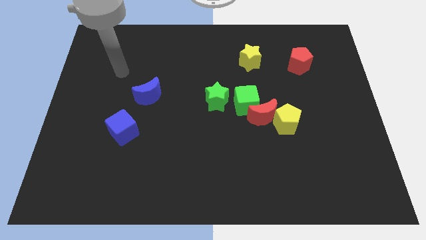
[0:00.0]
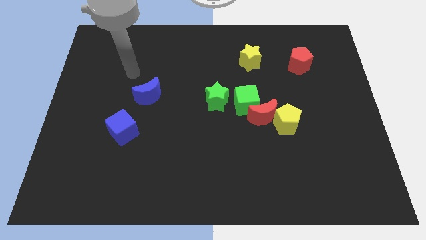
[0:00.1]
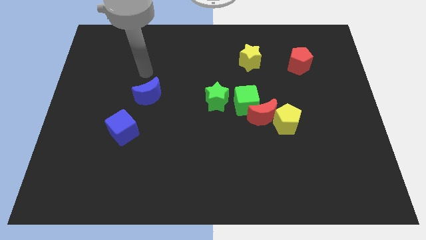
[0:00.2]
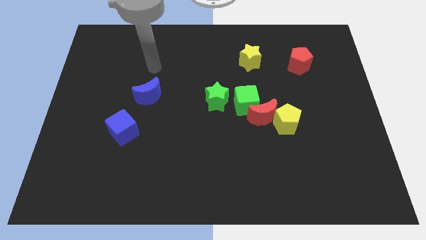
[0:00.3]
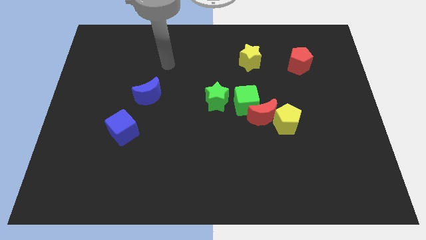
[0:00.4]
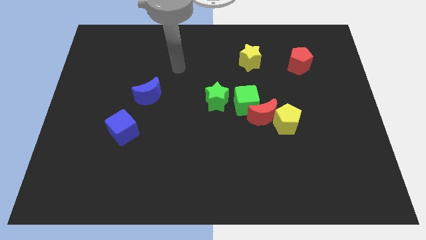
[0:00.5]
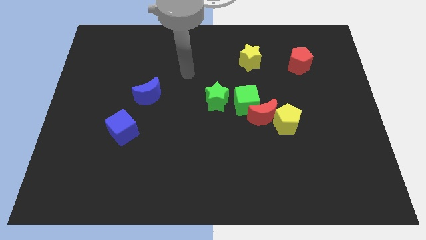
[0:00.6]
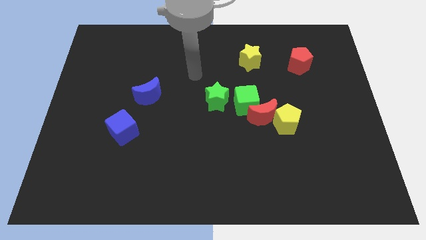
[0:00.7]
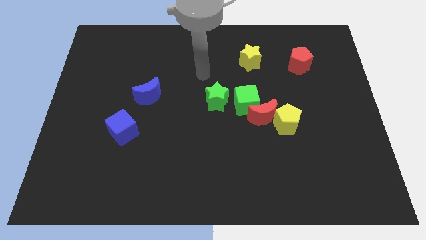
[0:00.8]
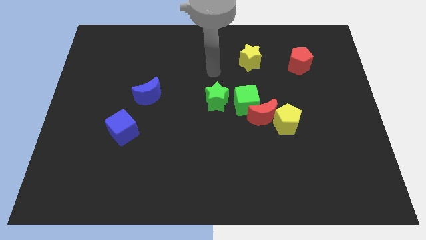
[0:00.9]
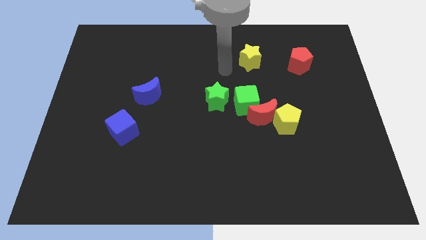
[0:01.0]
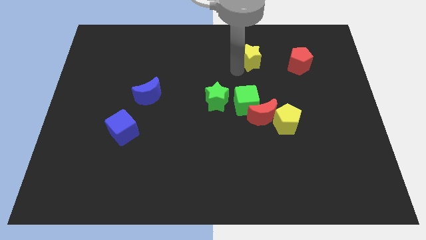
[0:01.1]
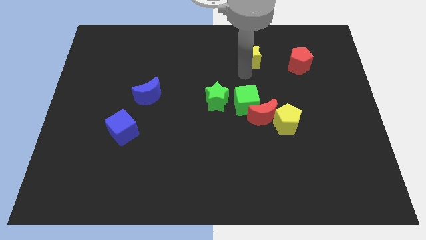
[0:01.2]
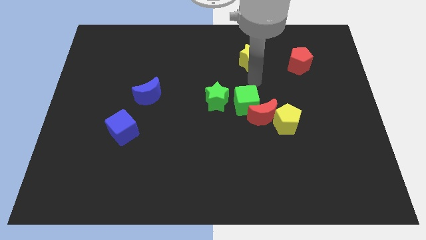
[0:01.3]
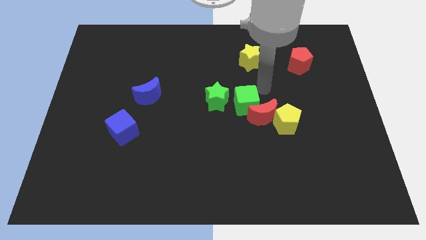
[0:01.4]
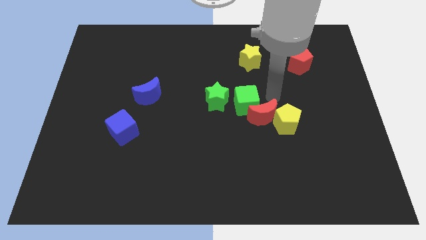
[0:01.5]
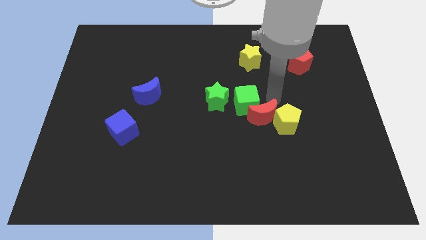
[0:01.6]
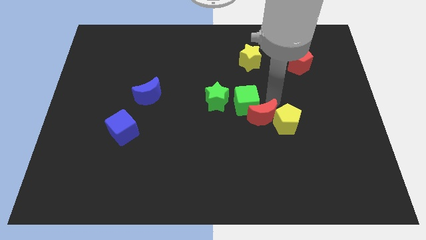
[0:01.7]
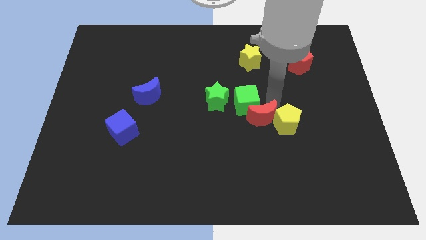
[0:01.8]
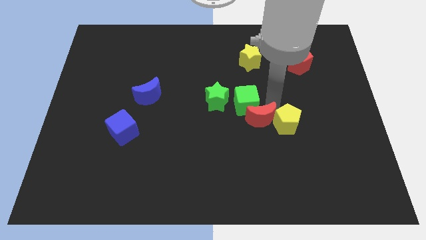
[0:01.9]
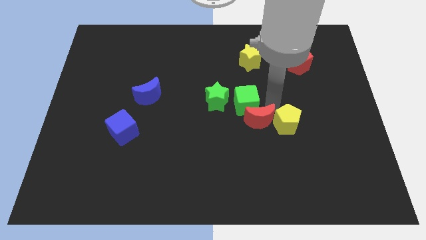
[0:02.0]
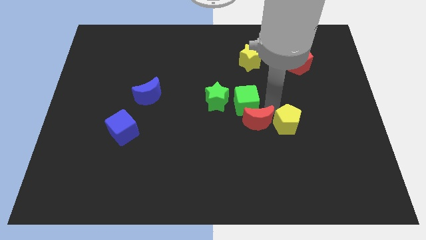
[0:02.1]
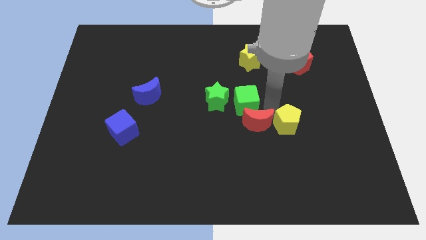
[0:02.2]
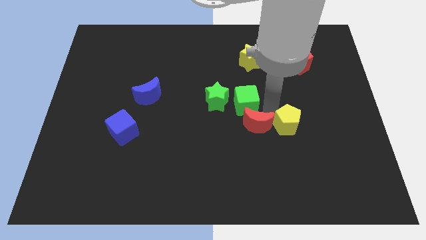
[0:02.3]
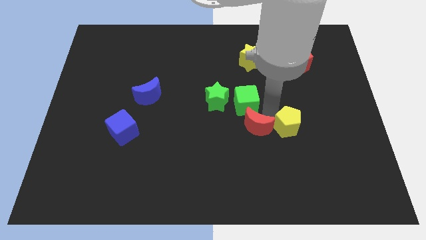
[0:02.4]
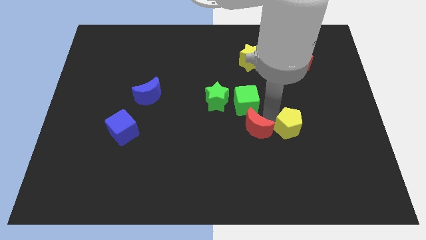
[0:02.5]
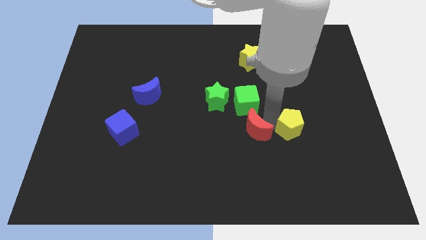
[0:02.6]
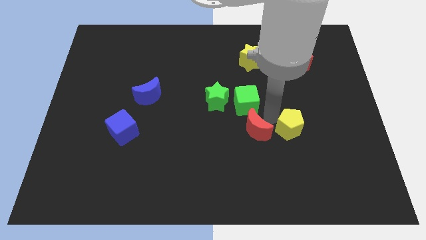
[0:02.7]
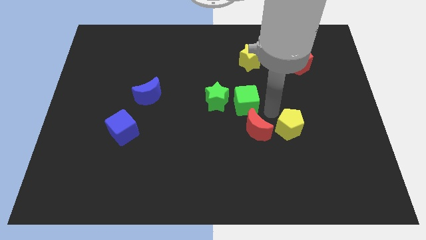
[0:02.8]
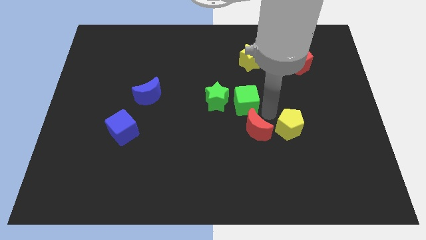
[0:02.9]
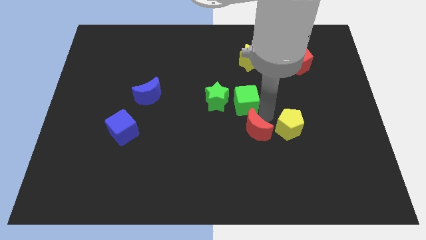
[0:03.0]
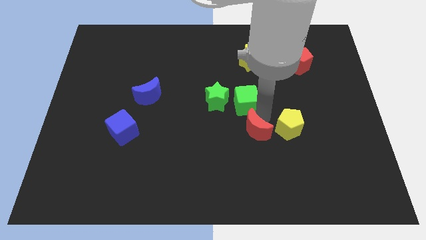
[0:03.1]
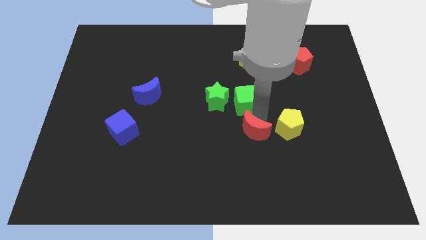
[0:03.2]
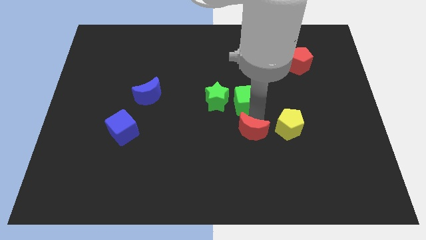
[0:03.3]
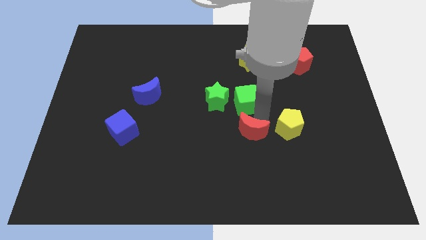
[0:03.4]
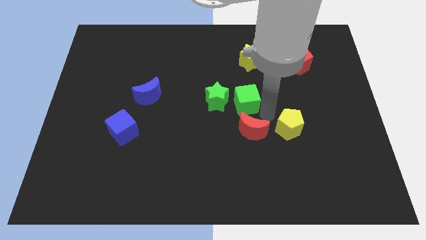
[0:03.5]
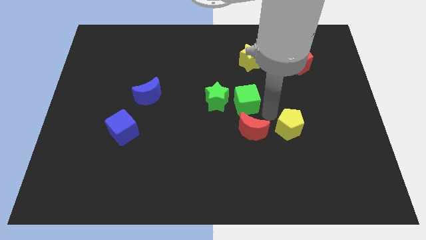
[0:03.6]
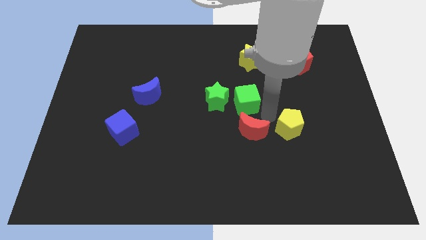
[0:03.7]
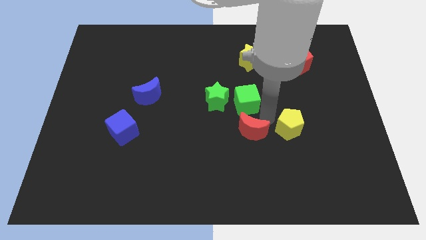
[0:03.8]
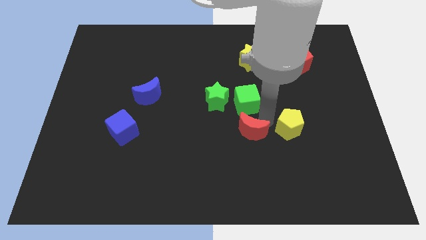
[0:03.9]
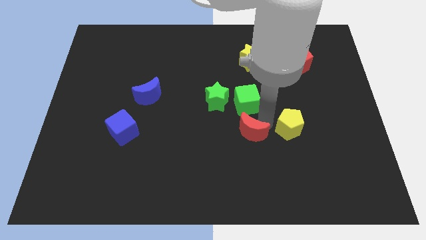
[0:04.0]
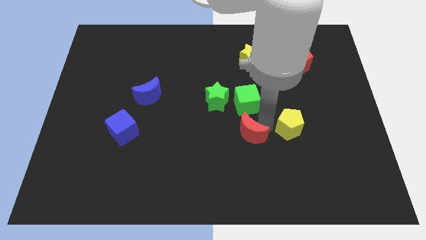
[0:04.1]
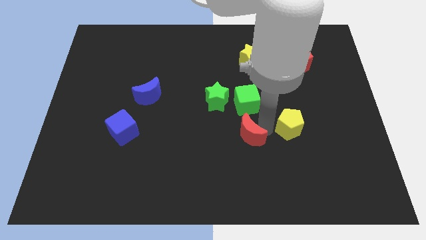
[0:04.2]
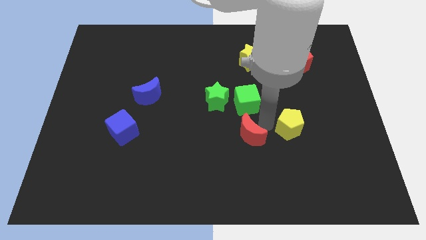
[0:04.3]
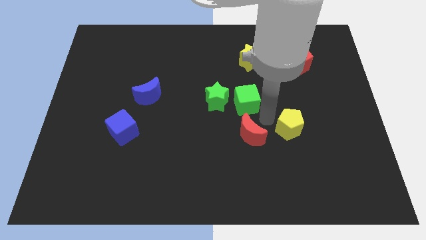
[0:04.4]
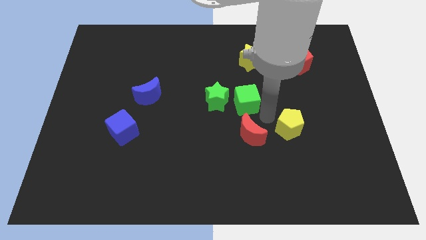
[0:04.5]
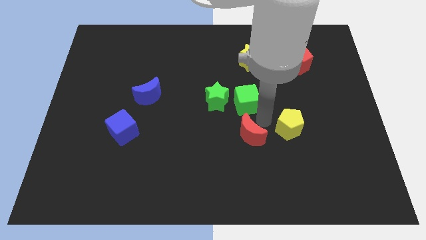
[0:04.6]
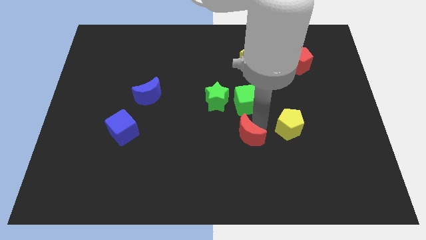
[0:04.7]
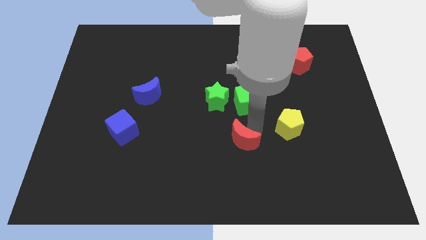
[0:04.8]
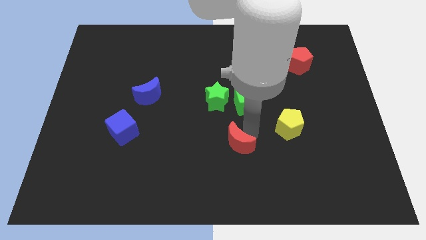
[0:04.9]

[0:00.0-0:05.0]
separate the red moon from the green cube and yellow pentagon

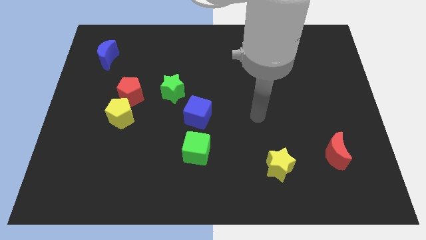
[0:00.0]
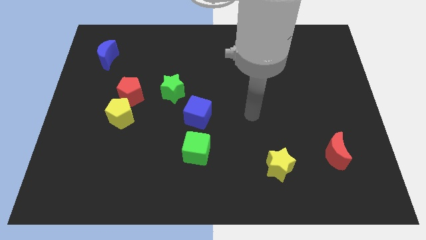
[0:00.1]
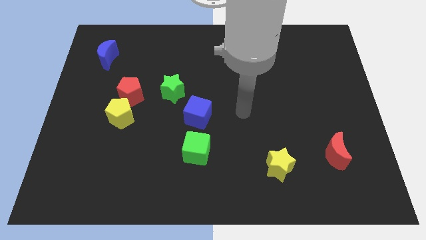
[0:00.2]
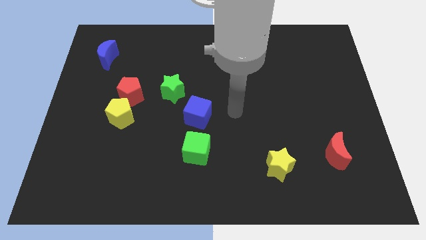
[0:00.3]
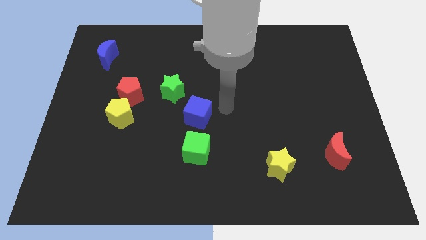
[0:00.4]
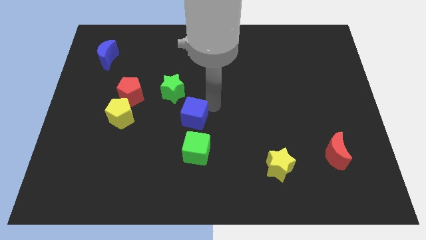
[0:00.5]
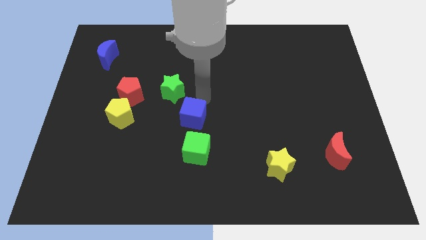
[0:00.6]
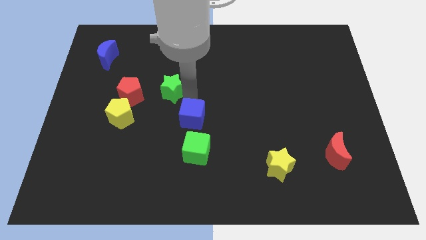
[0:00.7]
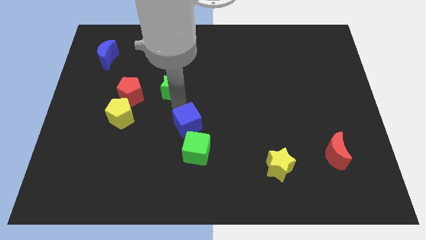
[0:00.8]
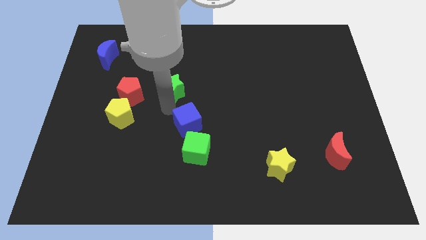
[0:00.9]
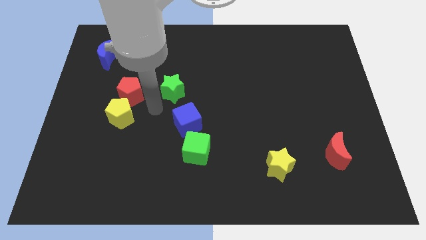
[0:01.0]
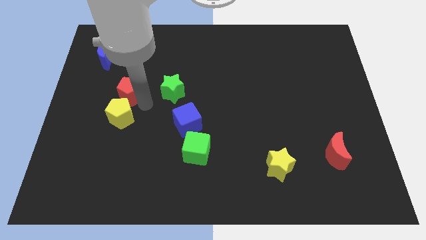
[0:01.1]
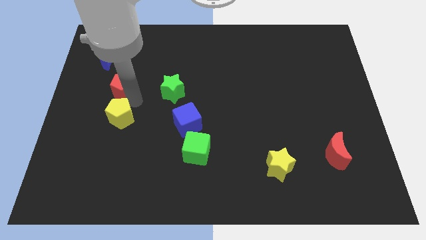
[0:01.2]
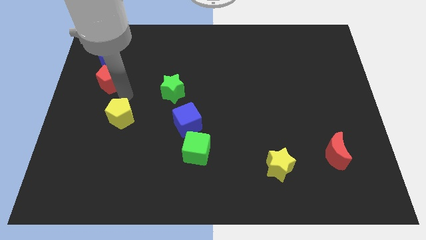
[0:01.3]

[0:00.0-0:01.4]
move the yellow pentagon away from the red pentagon

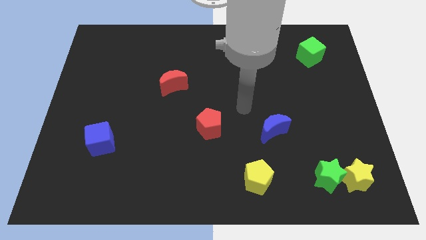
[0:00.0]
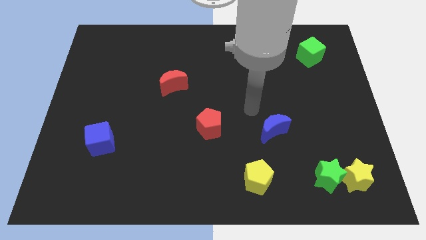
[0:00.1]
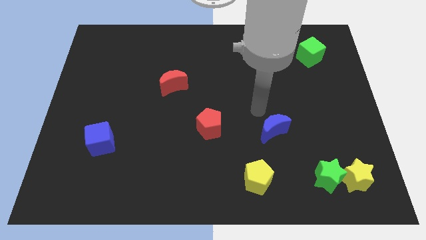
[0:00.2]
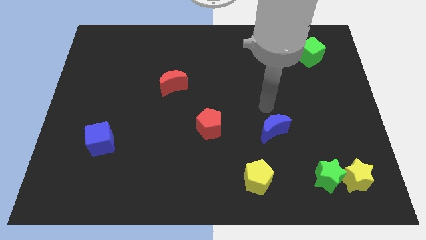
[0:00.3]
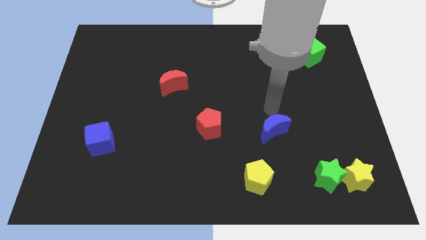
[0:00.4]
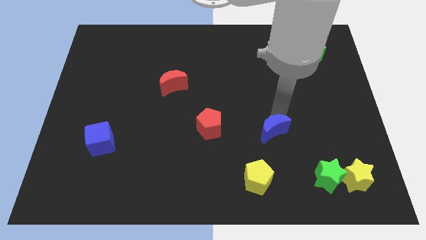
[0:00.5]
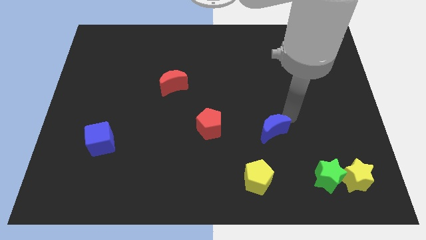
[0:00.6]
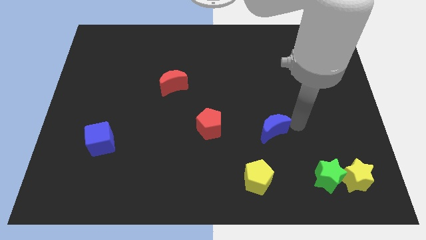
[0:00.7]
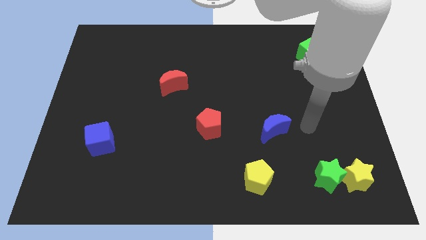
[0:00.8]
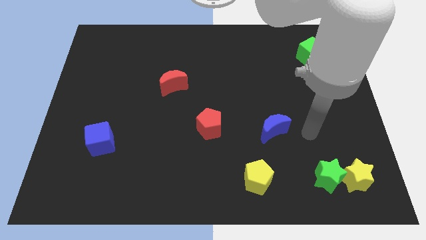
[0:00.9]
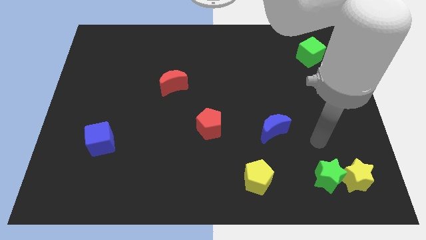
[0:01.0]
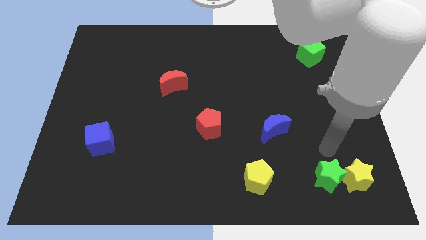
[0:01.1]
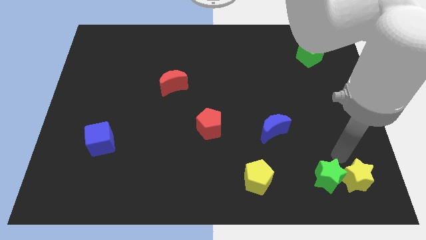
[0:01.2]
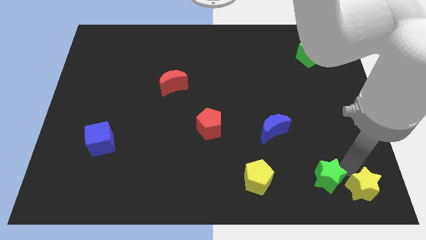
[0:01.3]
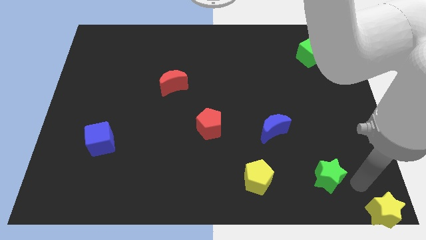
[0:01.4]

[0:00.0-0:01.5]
separate the green star from the yellow star

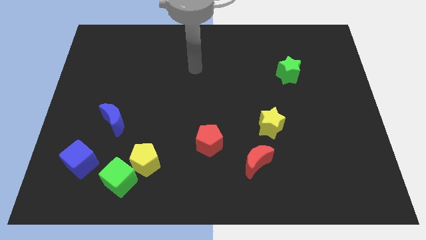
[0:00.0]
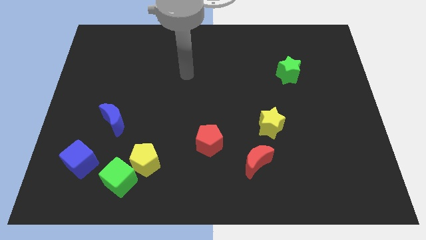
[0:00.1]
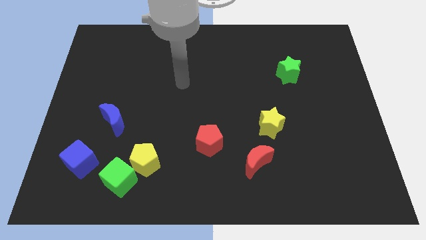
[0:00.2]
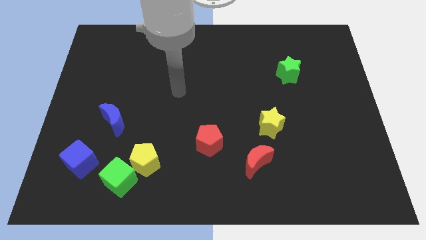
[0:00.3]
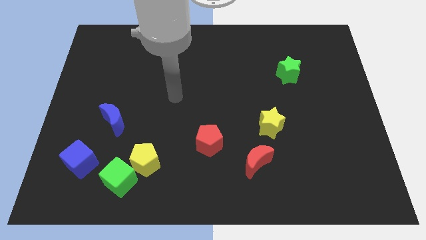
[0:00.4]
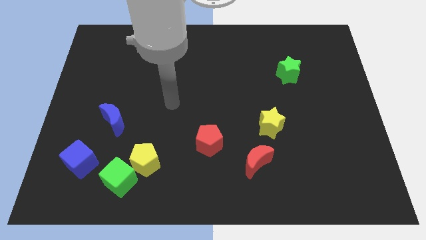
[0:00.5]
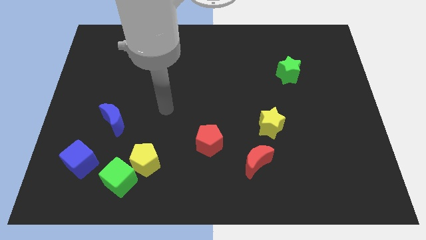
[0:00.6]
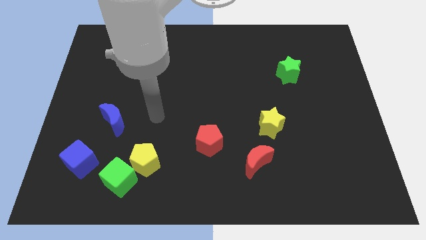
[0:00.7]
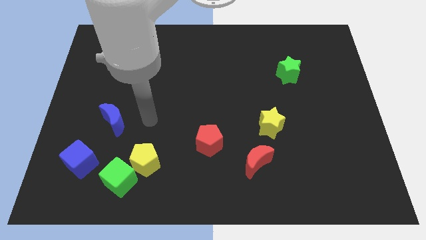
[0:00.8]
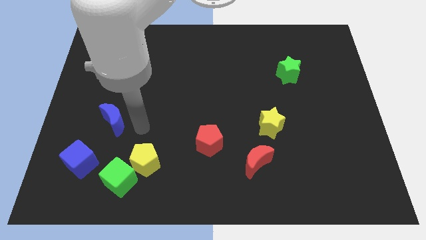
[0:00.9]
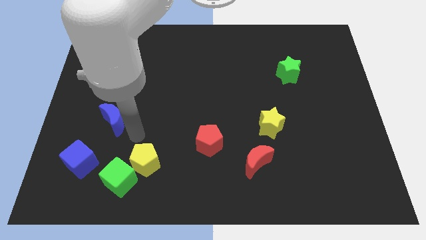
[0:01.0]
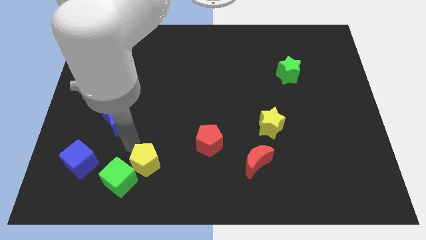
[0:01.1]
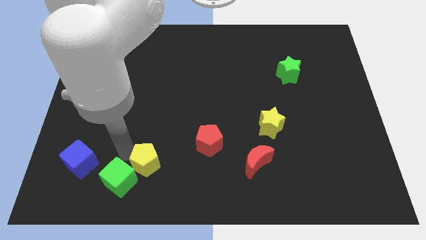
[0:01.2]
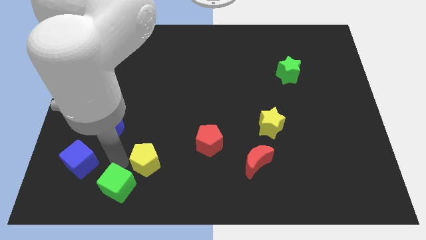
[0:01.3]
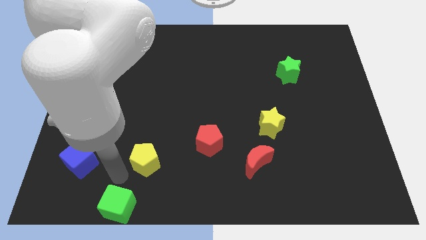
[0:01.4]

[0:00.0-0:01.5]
pull the yellow pentagon apart from the green cube

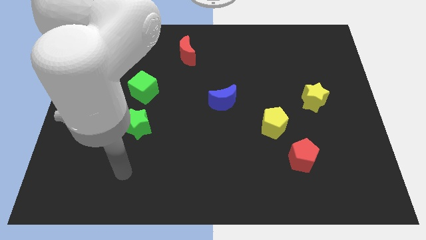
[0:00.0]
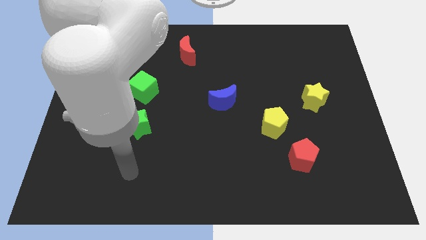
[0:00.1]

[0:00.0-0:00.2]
separate the red pentagon from the yellow pentagon
